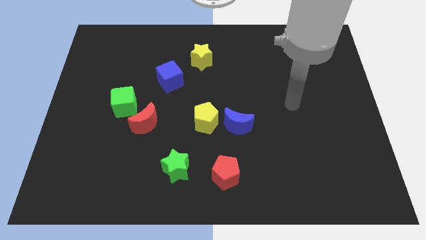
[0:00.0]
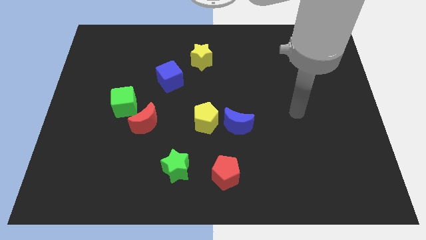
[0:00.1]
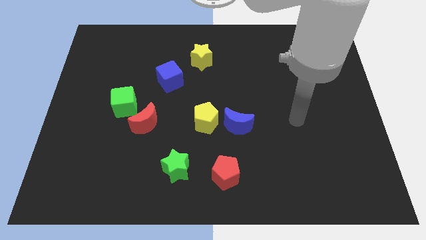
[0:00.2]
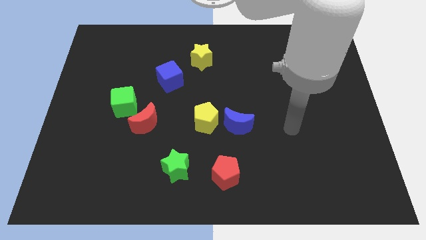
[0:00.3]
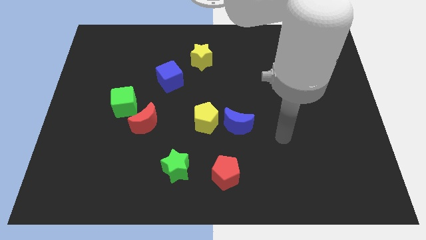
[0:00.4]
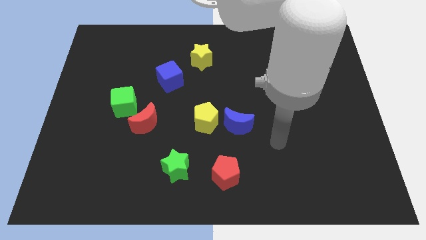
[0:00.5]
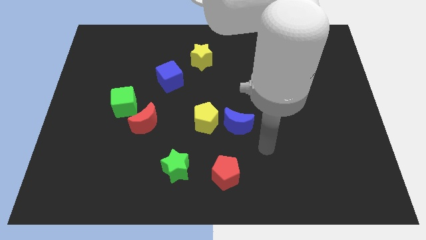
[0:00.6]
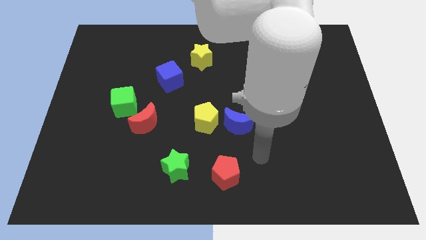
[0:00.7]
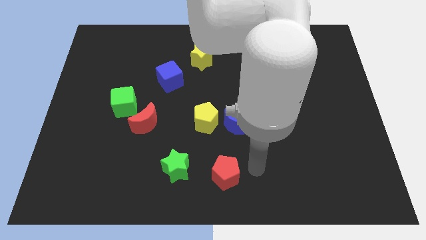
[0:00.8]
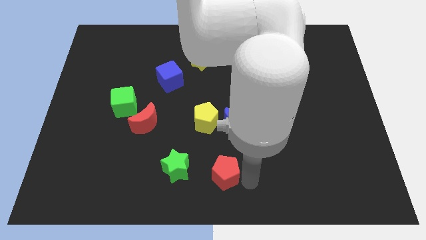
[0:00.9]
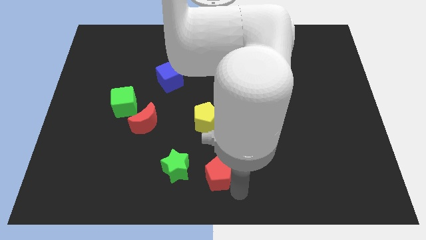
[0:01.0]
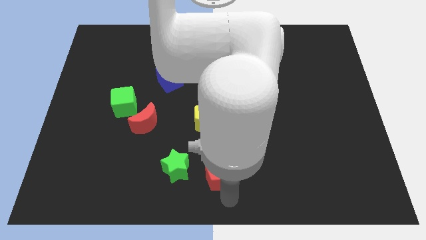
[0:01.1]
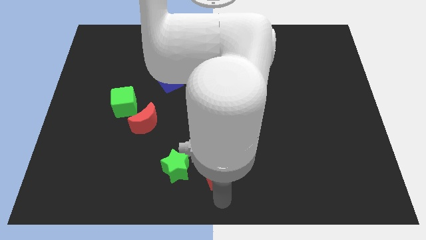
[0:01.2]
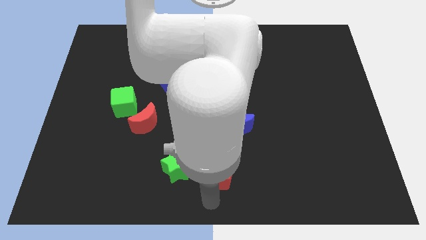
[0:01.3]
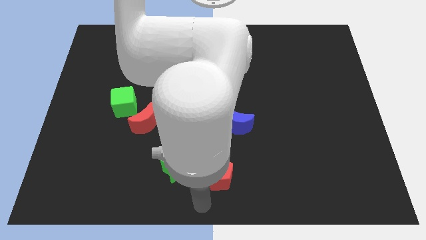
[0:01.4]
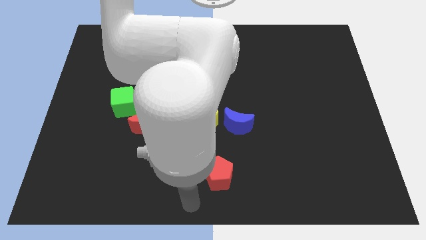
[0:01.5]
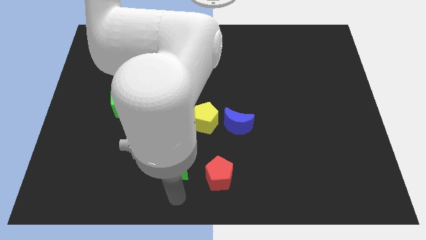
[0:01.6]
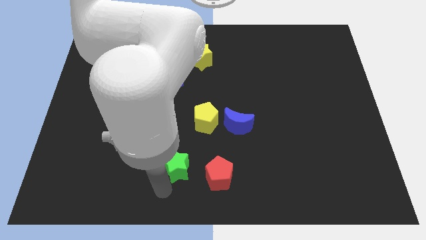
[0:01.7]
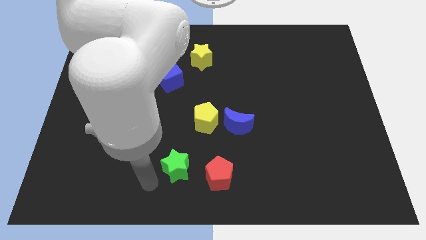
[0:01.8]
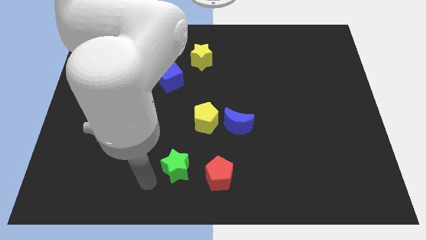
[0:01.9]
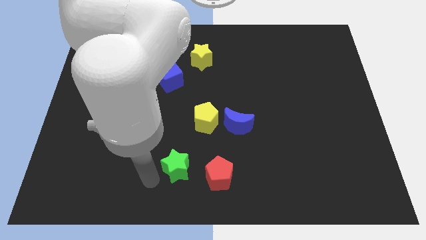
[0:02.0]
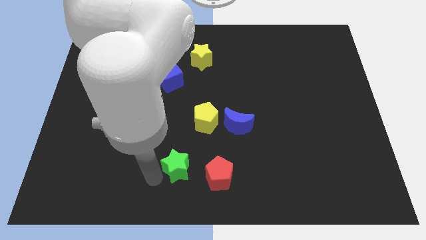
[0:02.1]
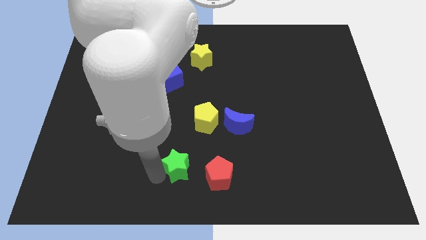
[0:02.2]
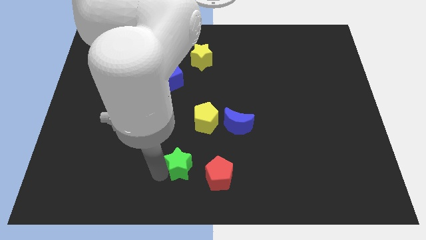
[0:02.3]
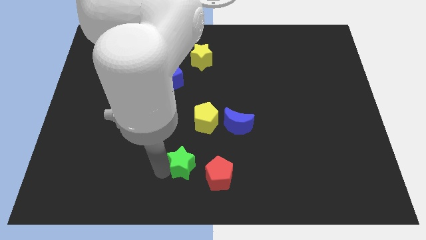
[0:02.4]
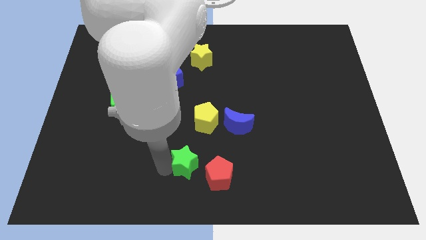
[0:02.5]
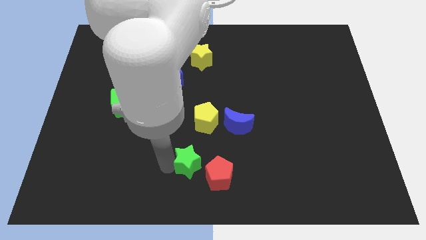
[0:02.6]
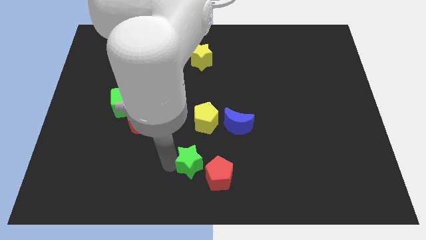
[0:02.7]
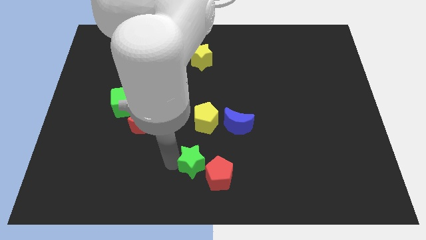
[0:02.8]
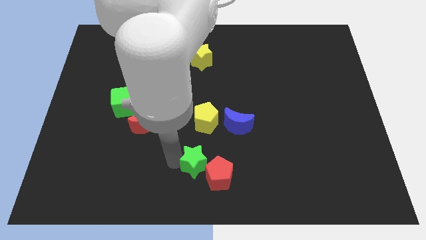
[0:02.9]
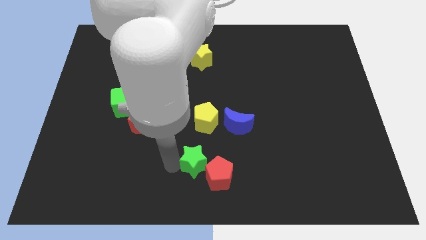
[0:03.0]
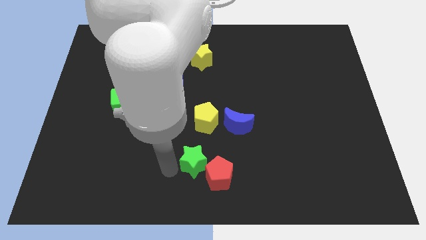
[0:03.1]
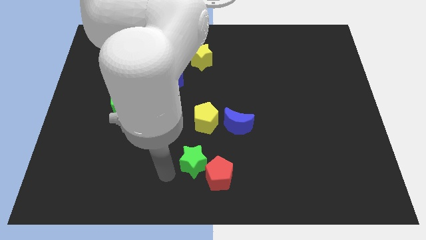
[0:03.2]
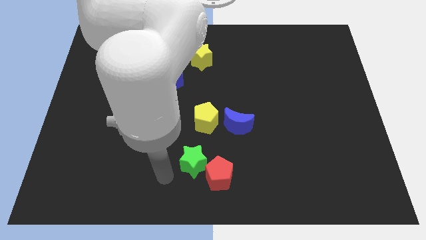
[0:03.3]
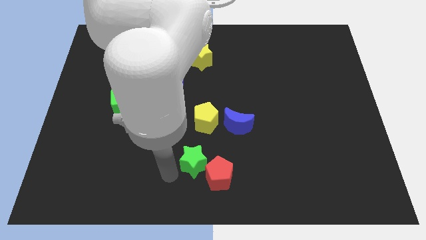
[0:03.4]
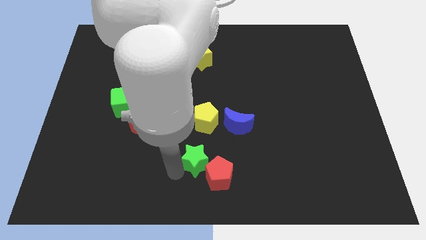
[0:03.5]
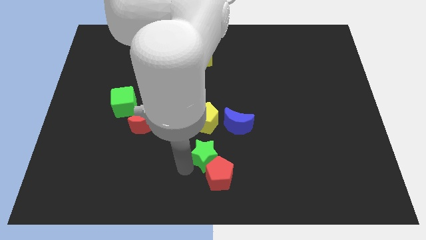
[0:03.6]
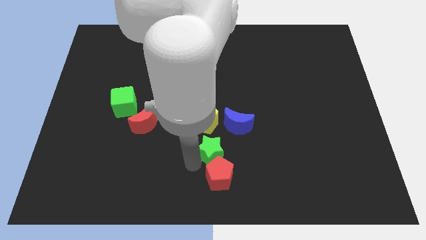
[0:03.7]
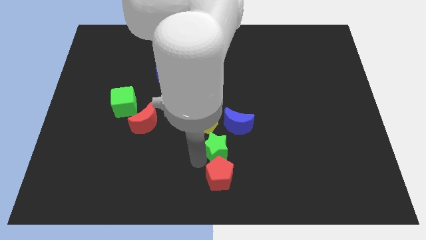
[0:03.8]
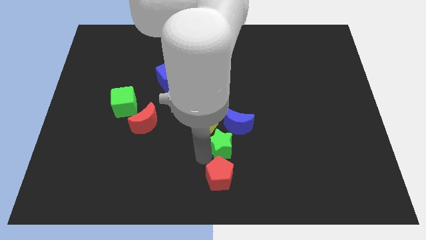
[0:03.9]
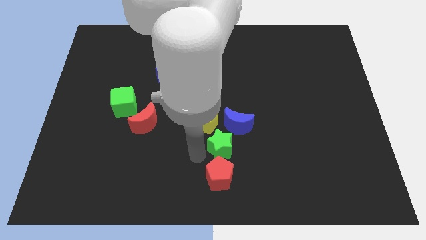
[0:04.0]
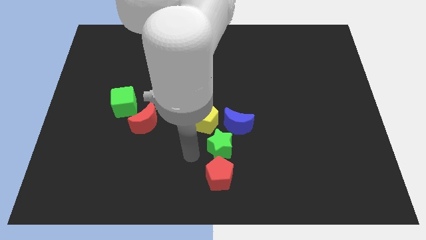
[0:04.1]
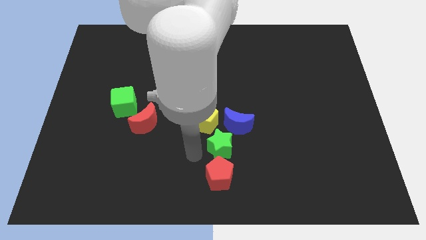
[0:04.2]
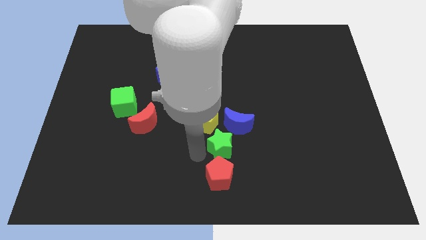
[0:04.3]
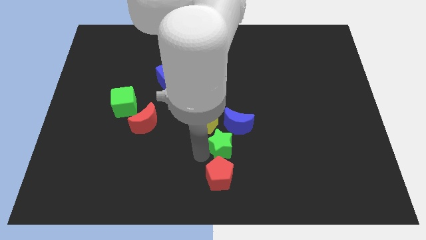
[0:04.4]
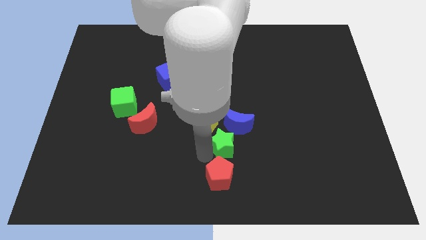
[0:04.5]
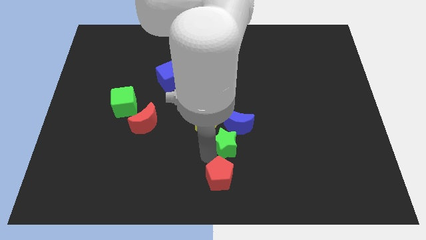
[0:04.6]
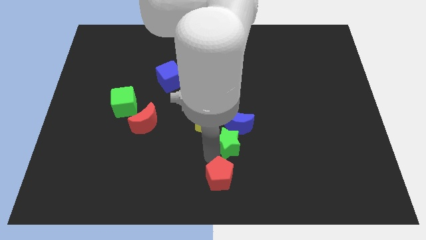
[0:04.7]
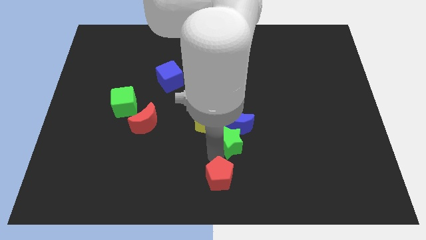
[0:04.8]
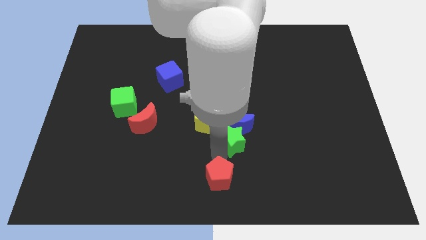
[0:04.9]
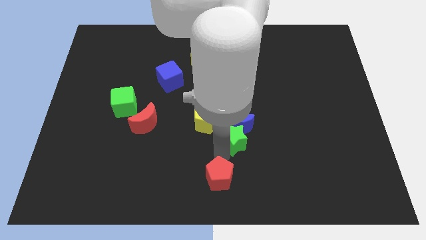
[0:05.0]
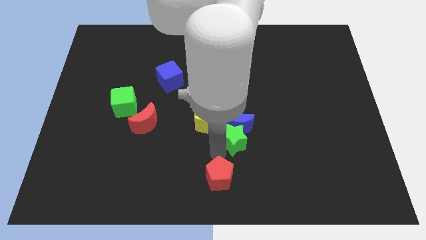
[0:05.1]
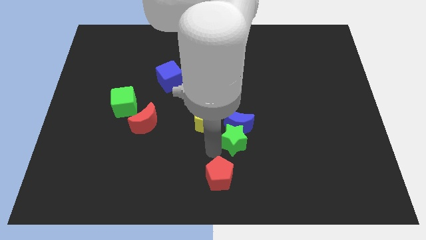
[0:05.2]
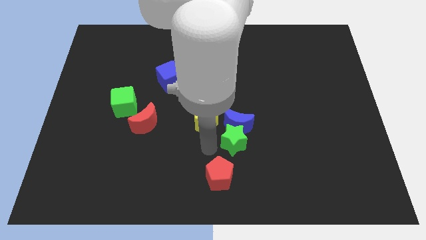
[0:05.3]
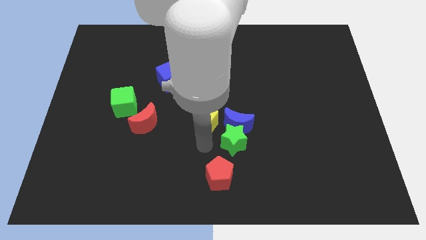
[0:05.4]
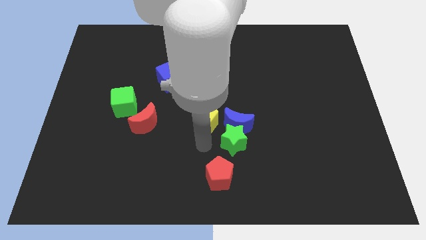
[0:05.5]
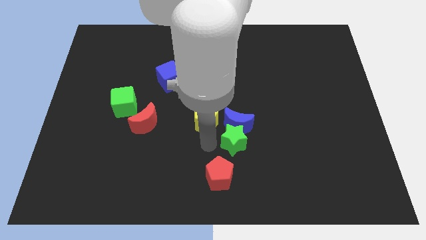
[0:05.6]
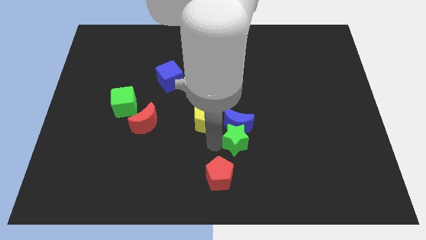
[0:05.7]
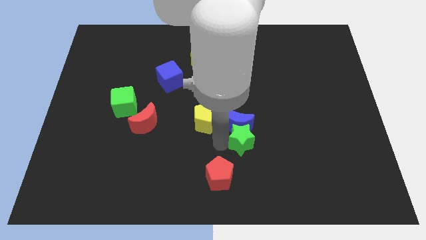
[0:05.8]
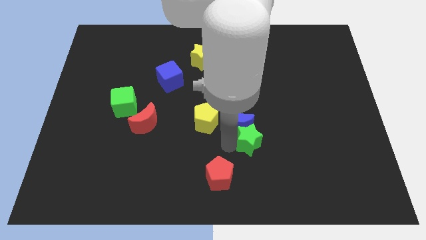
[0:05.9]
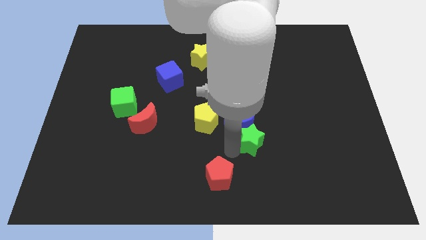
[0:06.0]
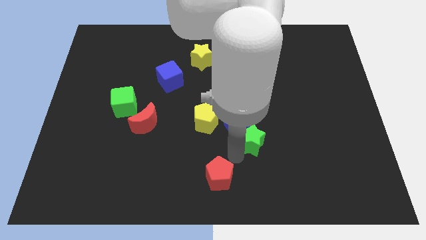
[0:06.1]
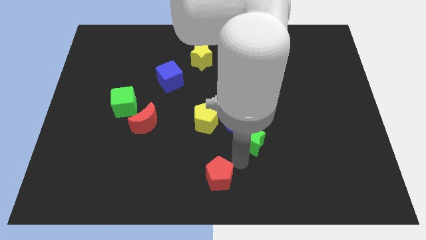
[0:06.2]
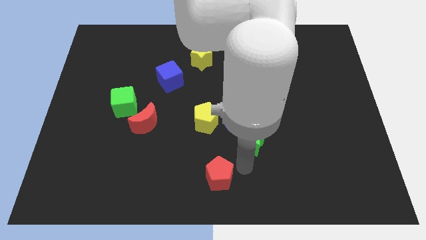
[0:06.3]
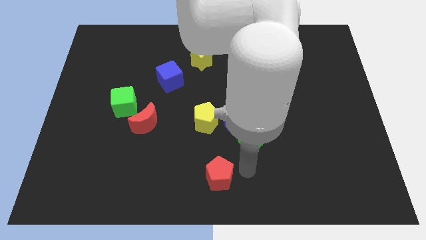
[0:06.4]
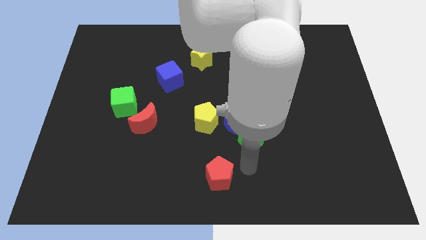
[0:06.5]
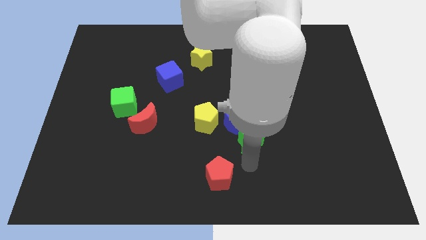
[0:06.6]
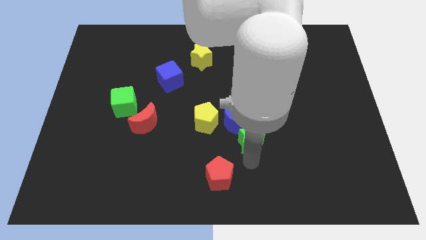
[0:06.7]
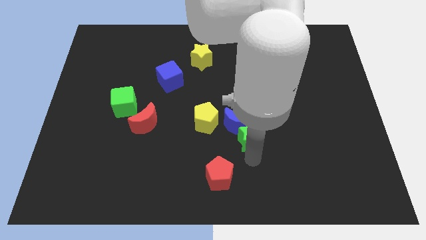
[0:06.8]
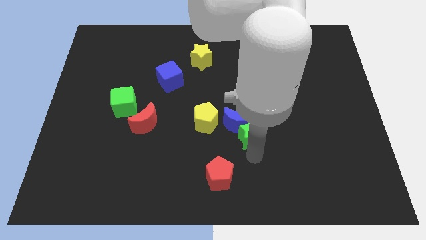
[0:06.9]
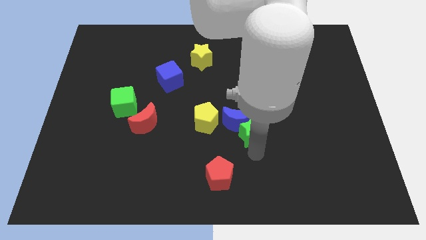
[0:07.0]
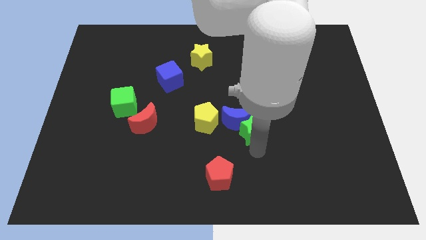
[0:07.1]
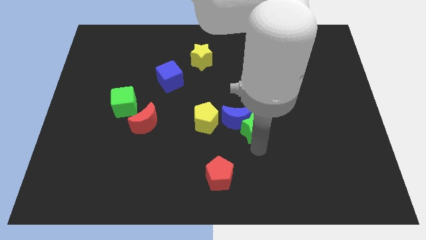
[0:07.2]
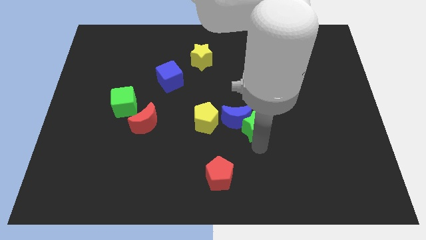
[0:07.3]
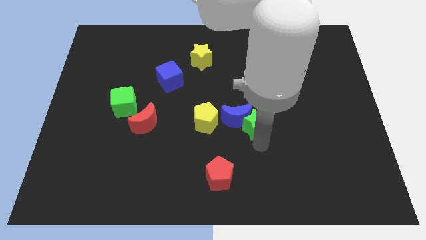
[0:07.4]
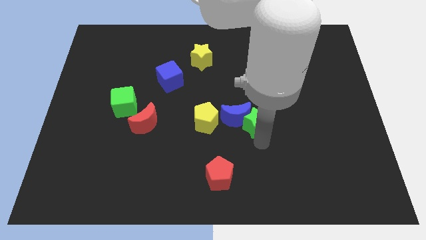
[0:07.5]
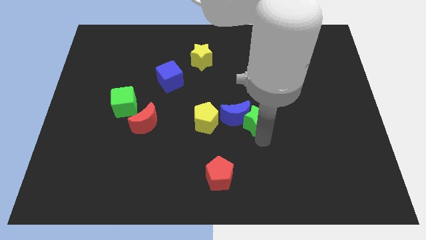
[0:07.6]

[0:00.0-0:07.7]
slide the green star upwards and to the right diagonally
